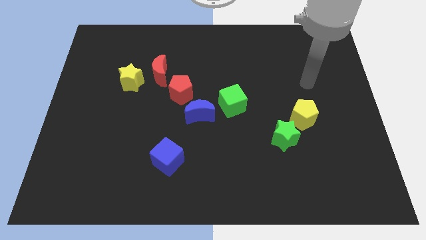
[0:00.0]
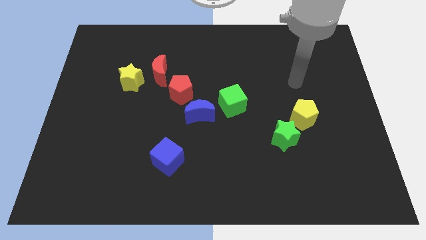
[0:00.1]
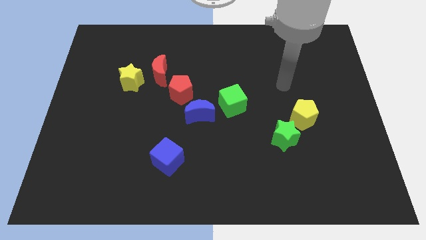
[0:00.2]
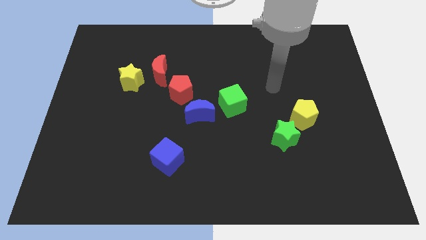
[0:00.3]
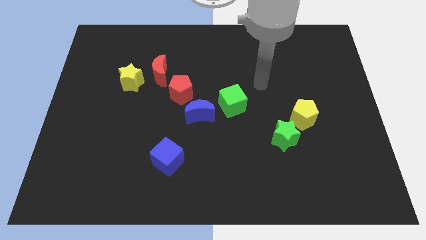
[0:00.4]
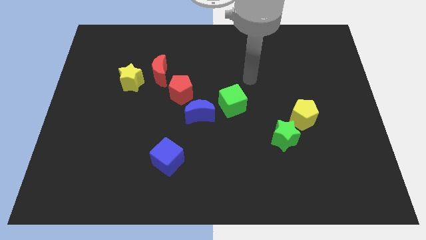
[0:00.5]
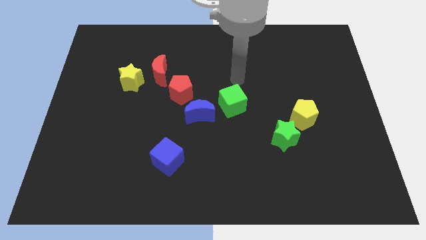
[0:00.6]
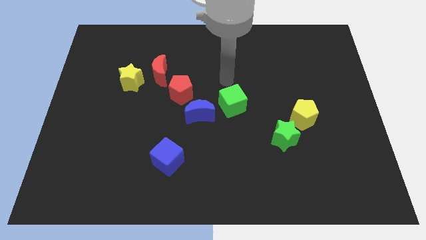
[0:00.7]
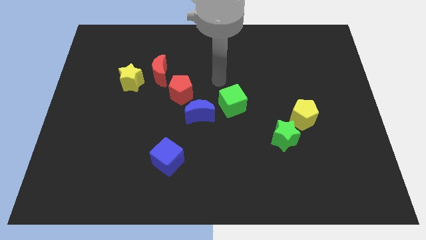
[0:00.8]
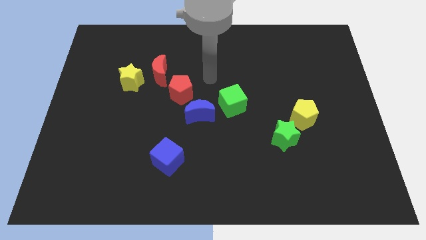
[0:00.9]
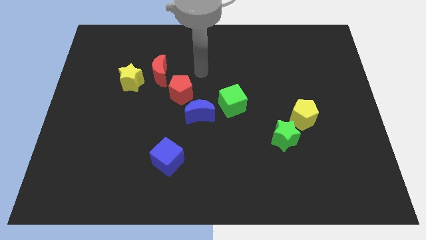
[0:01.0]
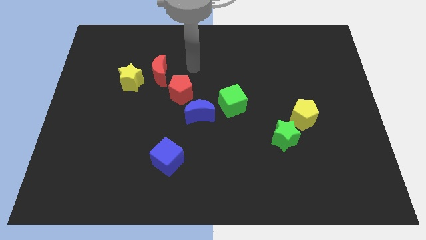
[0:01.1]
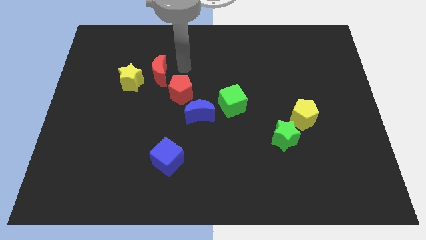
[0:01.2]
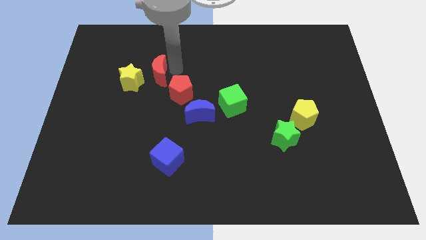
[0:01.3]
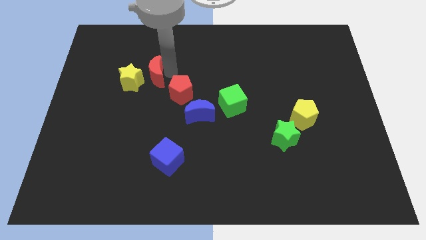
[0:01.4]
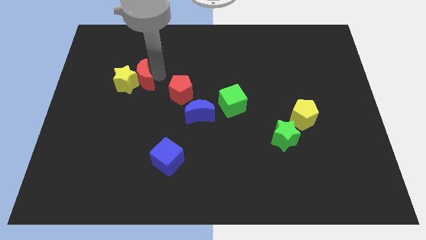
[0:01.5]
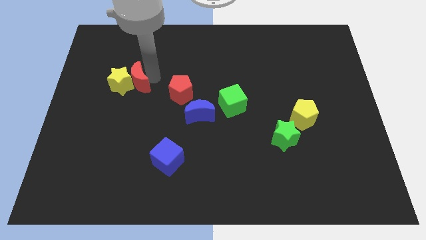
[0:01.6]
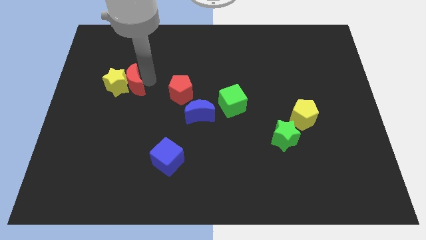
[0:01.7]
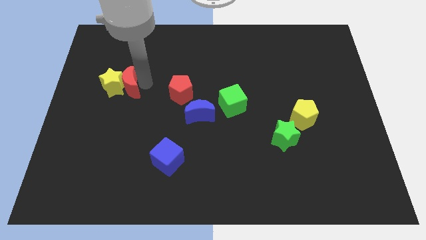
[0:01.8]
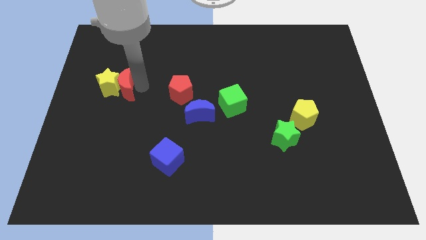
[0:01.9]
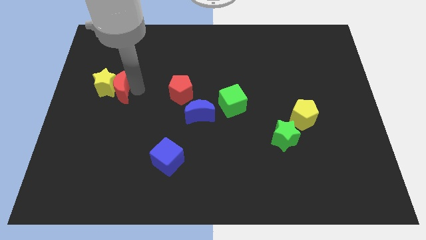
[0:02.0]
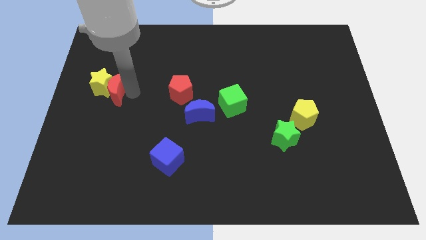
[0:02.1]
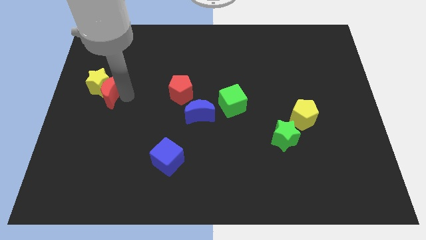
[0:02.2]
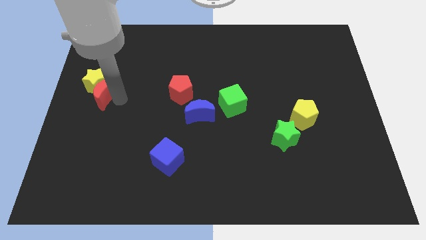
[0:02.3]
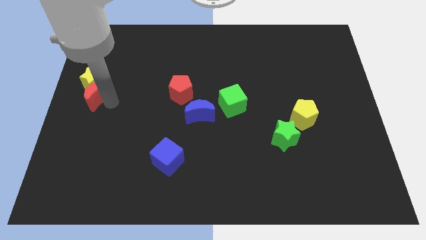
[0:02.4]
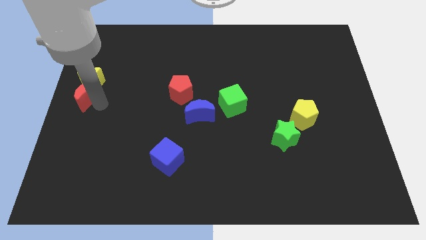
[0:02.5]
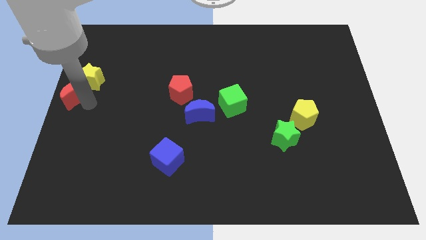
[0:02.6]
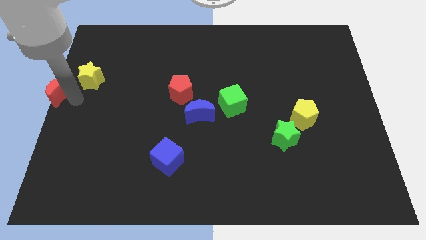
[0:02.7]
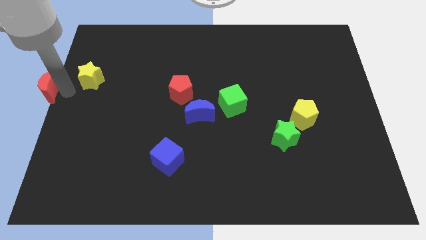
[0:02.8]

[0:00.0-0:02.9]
separate the yellow star from the red moon

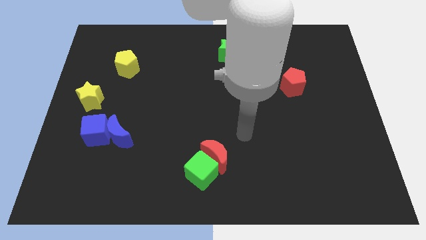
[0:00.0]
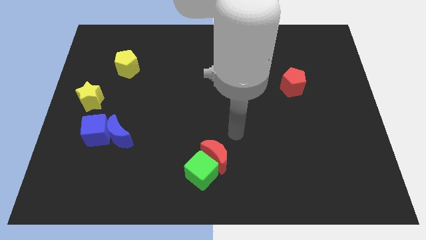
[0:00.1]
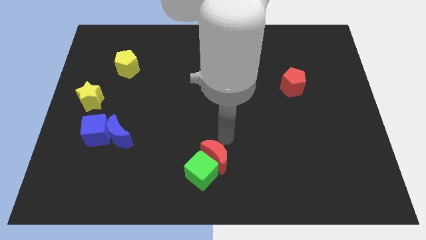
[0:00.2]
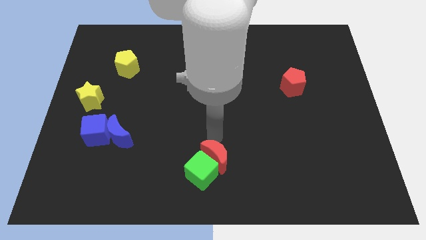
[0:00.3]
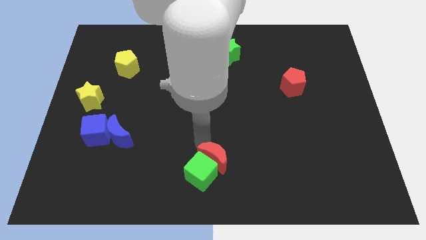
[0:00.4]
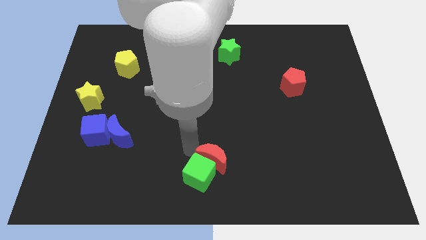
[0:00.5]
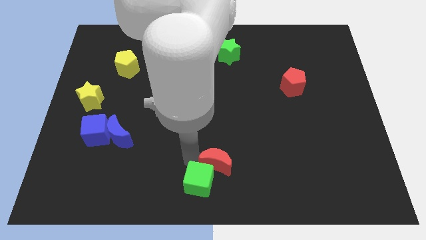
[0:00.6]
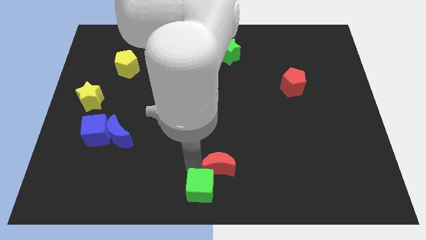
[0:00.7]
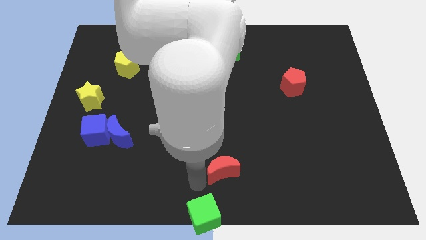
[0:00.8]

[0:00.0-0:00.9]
move the red moon away from the green cube

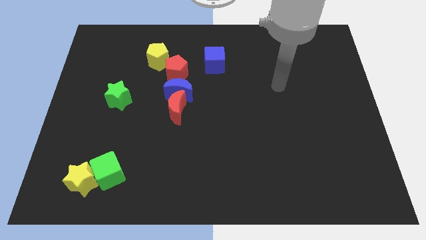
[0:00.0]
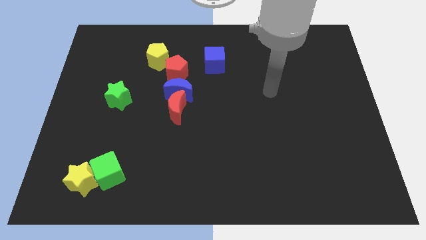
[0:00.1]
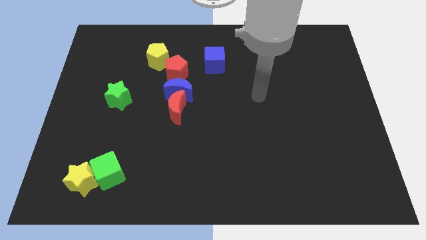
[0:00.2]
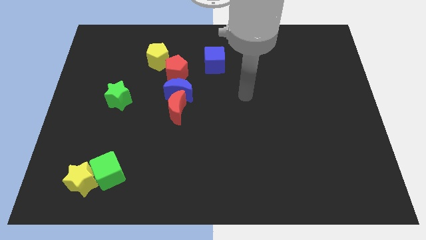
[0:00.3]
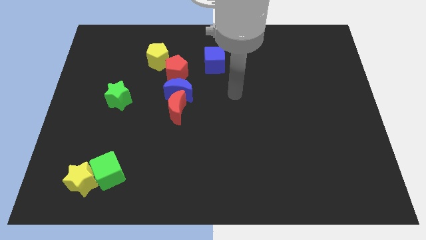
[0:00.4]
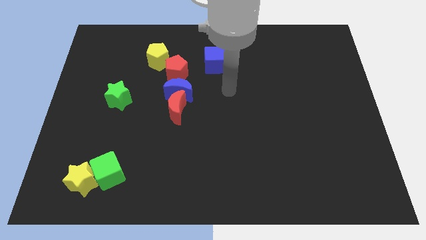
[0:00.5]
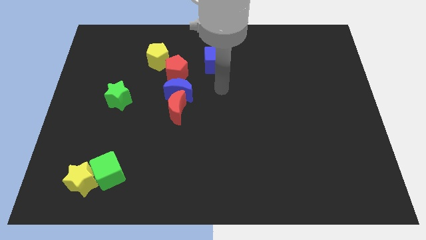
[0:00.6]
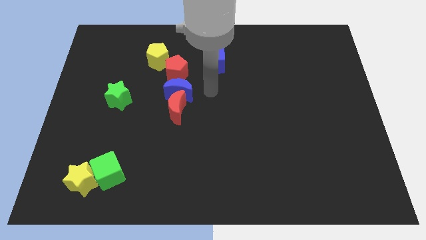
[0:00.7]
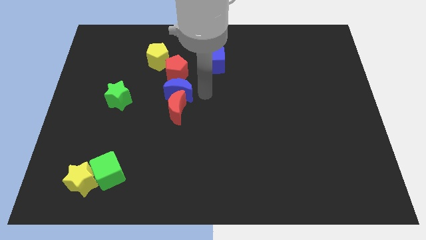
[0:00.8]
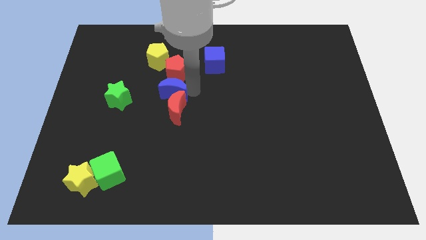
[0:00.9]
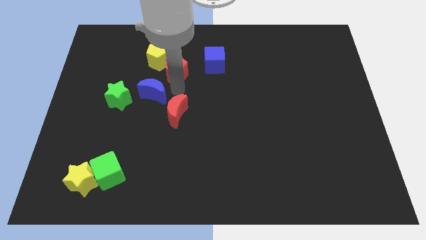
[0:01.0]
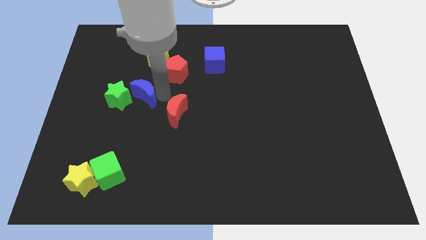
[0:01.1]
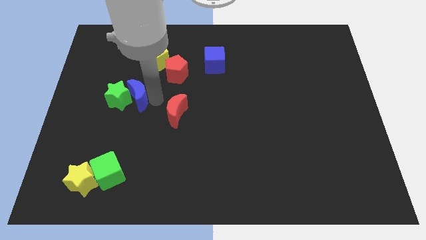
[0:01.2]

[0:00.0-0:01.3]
separate the red moon from the blue moon

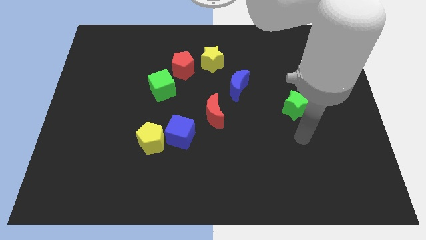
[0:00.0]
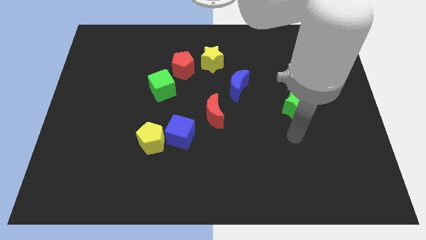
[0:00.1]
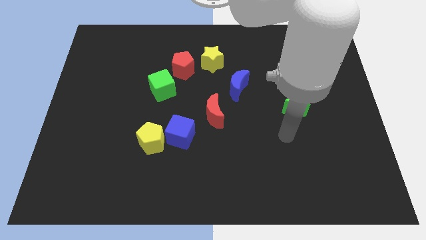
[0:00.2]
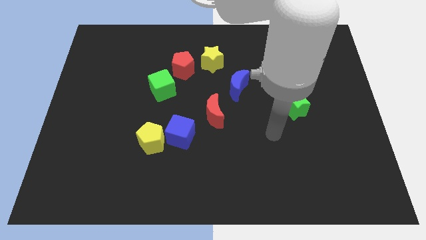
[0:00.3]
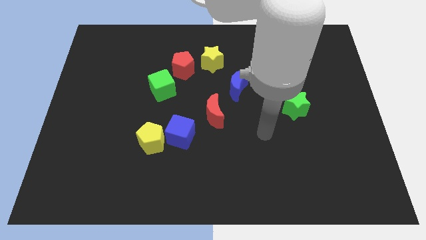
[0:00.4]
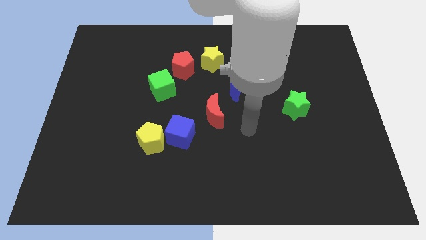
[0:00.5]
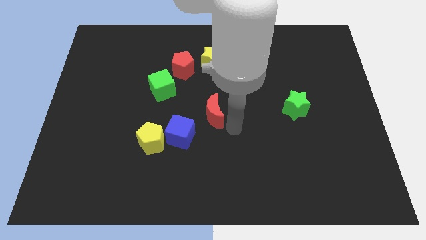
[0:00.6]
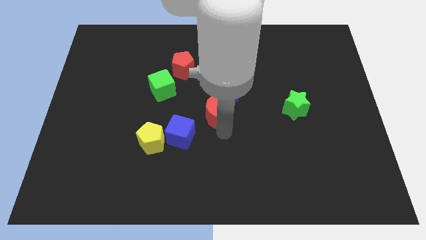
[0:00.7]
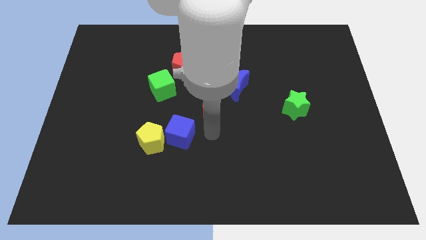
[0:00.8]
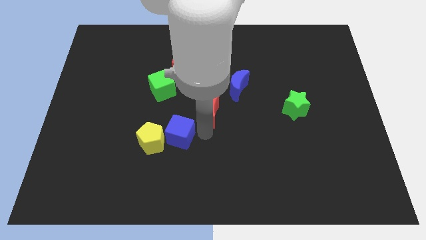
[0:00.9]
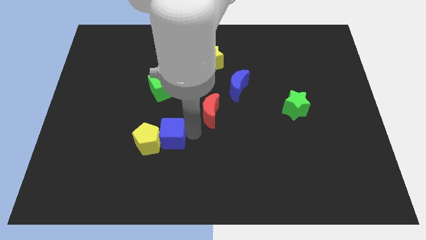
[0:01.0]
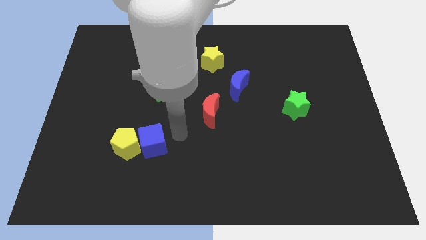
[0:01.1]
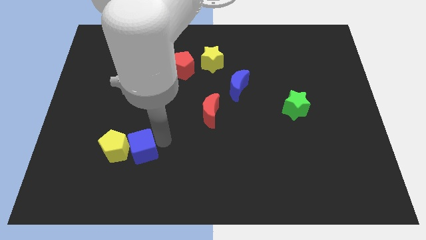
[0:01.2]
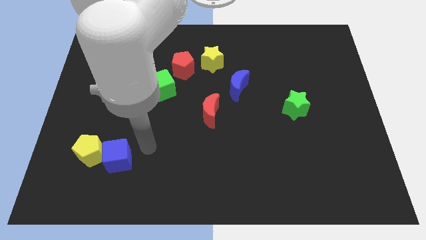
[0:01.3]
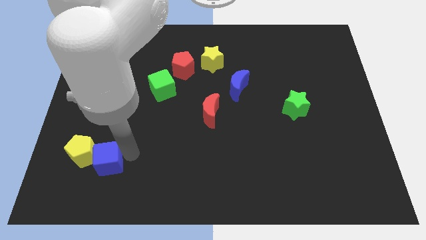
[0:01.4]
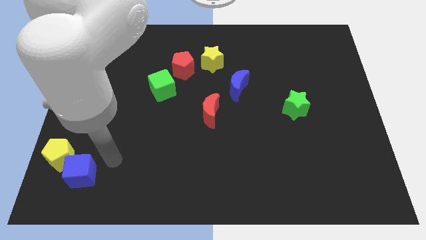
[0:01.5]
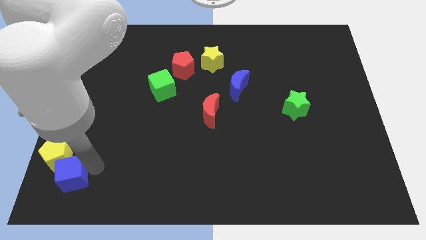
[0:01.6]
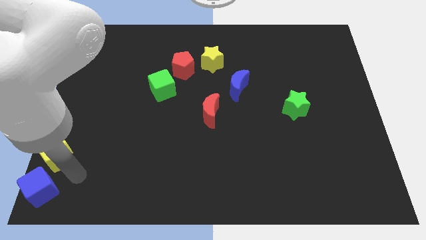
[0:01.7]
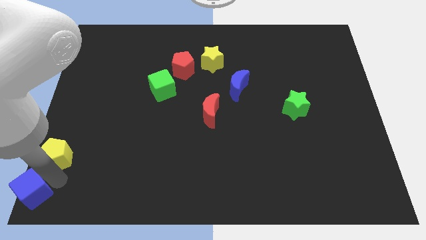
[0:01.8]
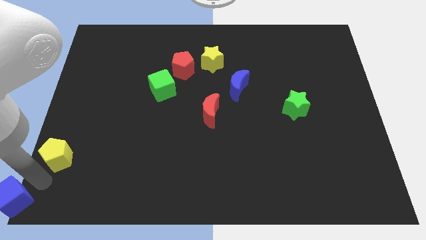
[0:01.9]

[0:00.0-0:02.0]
move the yellow pentagon away from the blue cube

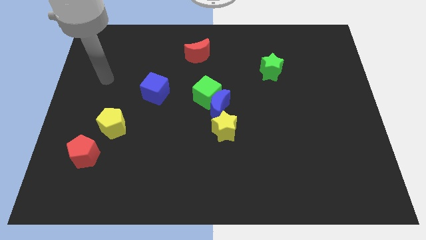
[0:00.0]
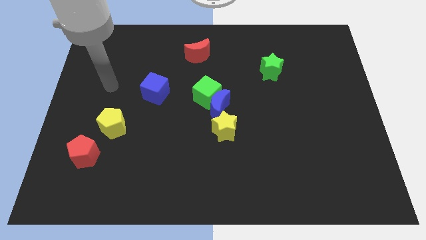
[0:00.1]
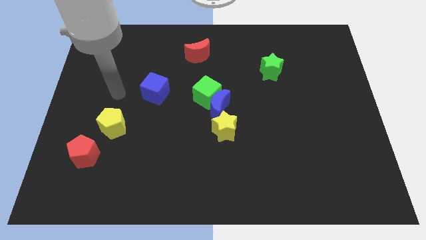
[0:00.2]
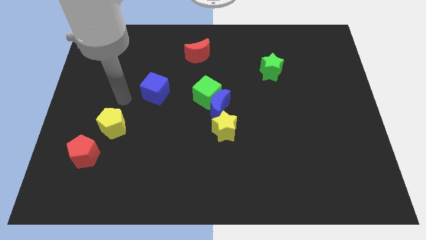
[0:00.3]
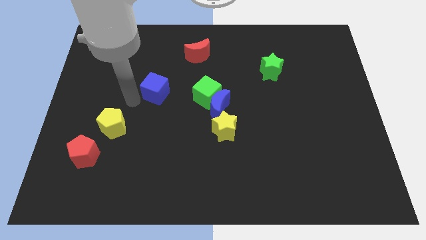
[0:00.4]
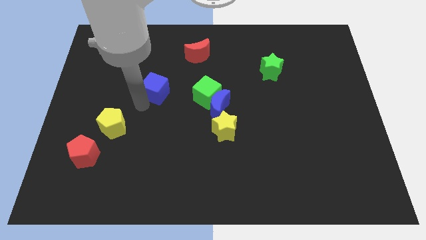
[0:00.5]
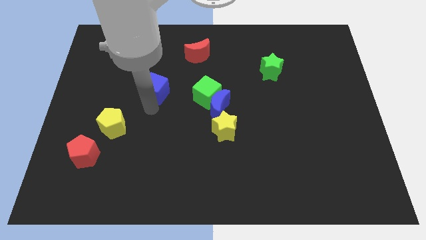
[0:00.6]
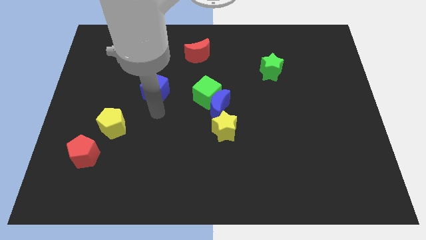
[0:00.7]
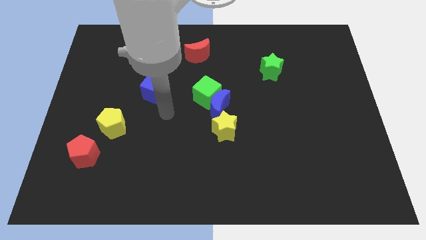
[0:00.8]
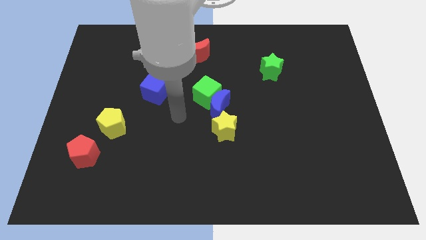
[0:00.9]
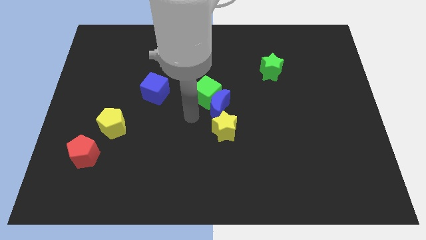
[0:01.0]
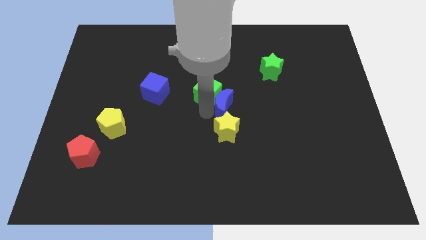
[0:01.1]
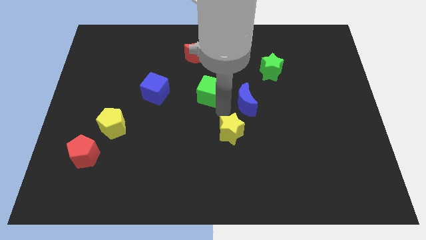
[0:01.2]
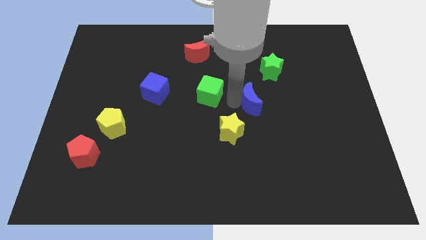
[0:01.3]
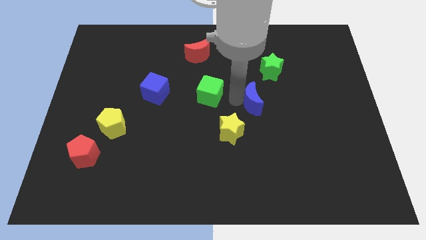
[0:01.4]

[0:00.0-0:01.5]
pull the green cube apart from the blue moon

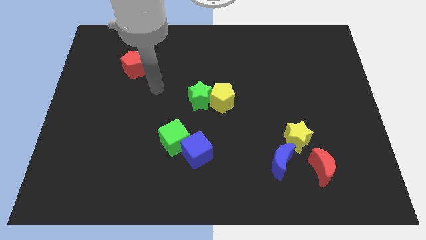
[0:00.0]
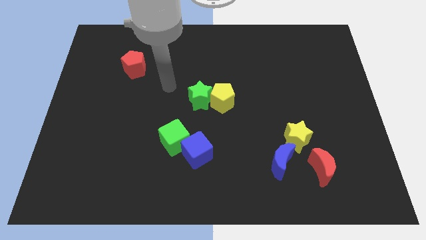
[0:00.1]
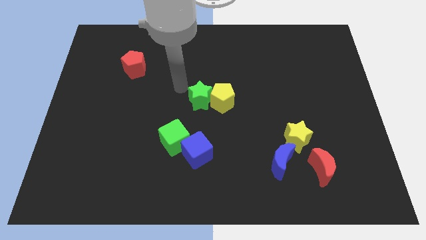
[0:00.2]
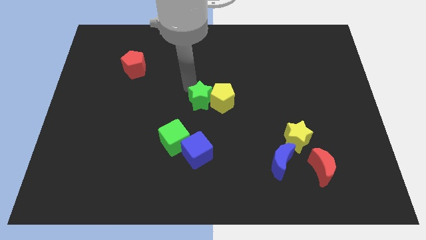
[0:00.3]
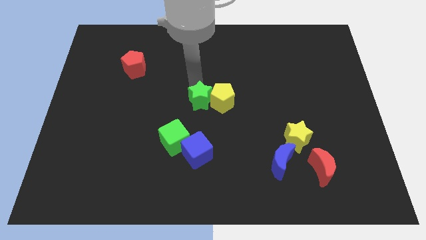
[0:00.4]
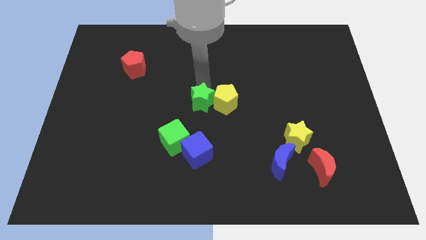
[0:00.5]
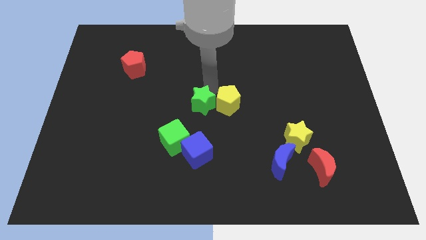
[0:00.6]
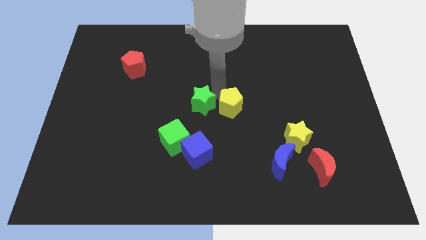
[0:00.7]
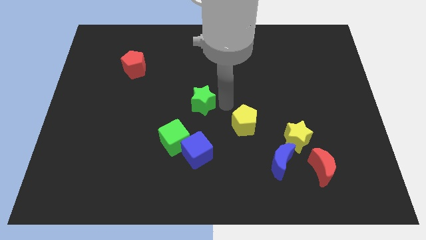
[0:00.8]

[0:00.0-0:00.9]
move the green star away from the yellow pentagon
